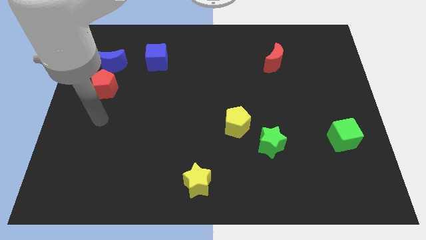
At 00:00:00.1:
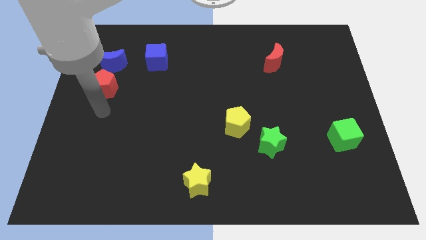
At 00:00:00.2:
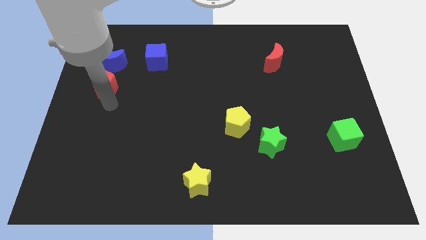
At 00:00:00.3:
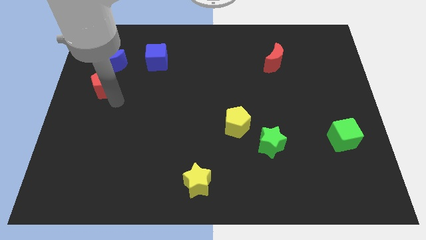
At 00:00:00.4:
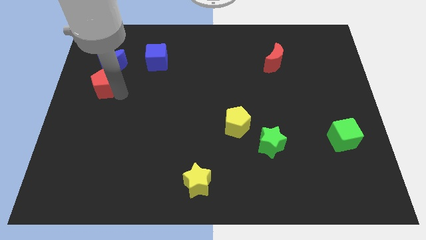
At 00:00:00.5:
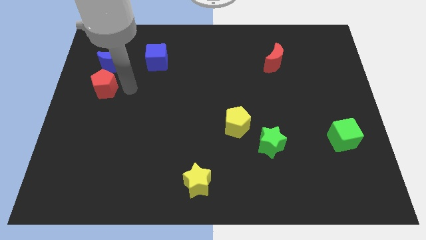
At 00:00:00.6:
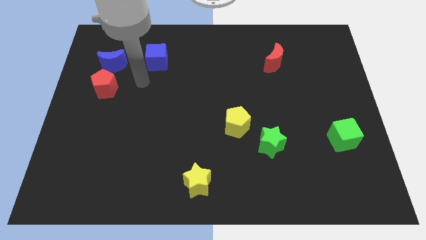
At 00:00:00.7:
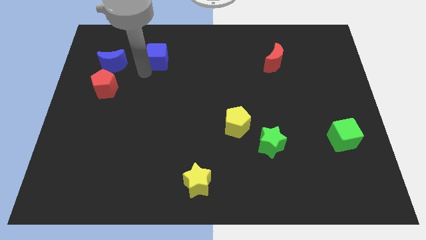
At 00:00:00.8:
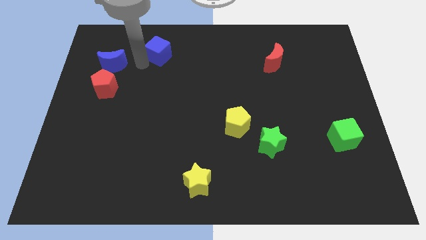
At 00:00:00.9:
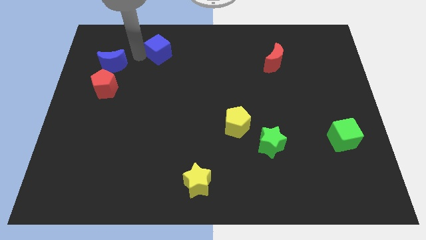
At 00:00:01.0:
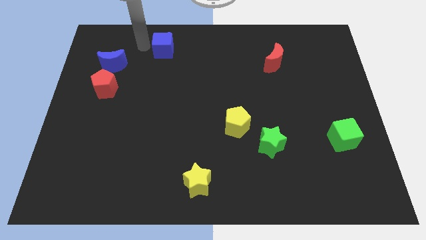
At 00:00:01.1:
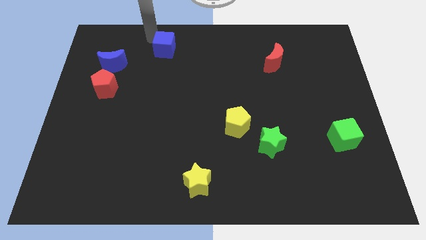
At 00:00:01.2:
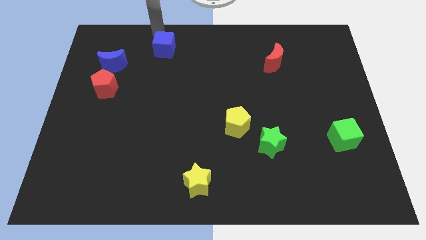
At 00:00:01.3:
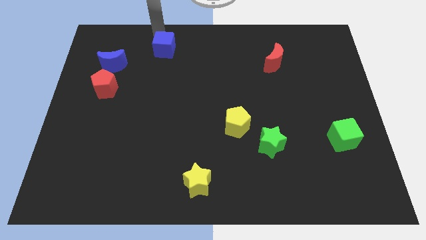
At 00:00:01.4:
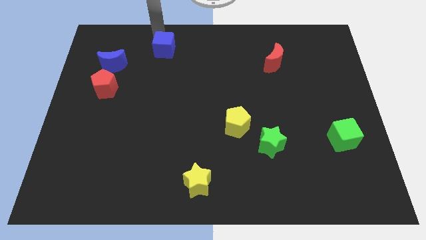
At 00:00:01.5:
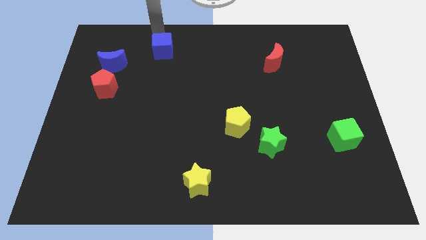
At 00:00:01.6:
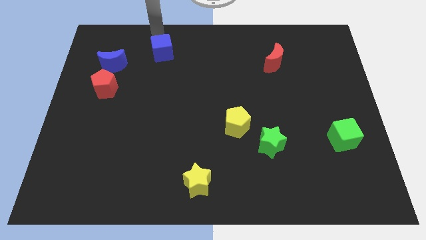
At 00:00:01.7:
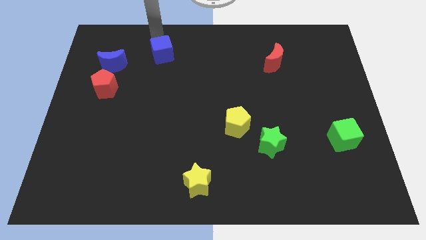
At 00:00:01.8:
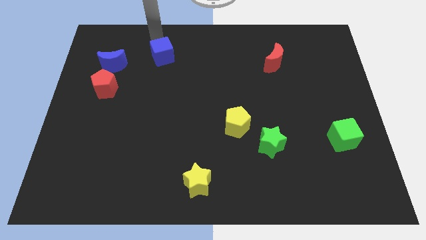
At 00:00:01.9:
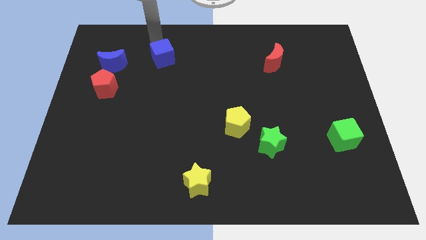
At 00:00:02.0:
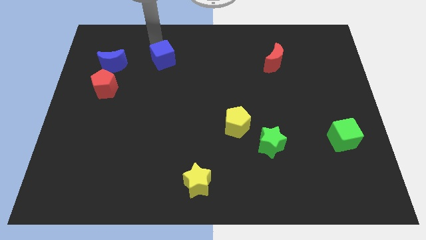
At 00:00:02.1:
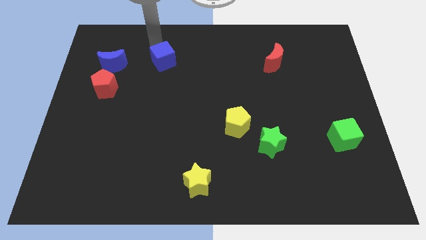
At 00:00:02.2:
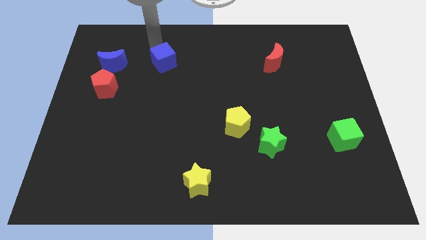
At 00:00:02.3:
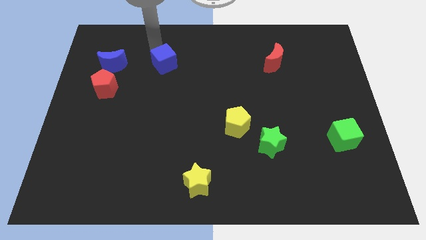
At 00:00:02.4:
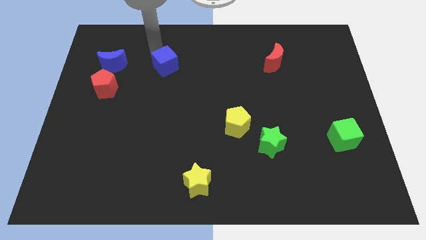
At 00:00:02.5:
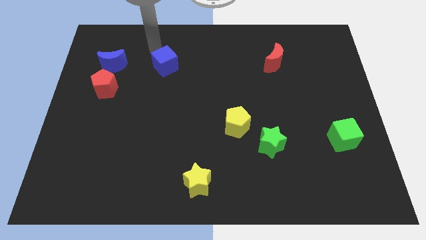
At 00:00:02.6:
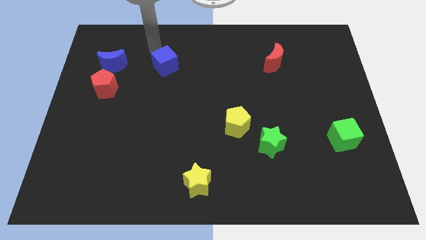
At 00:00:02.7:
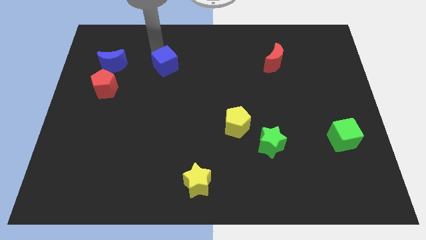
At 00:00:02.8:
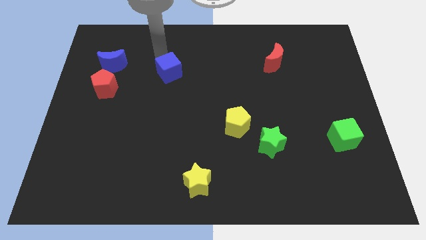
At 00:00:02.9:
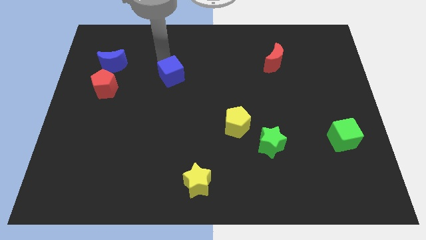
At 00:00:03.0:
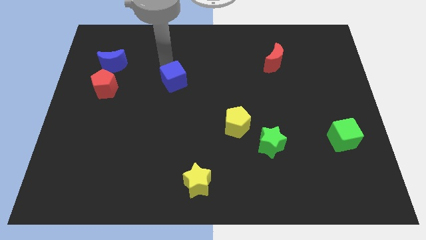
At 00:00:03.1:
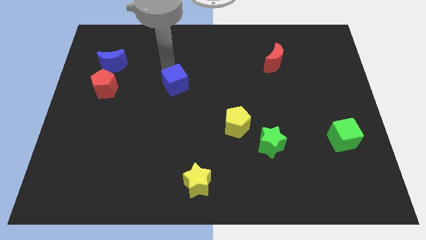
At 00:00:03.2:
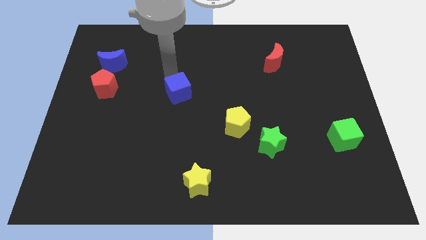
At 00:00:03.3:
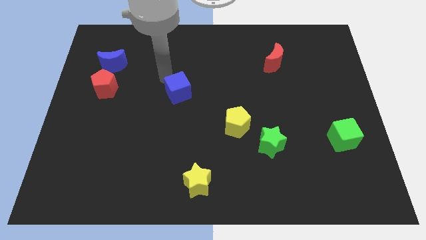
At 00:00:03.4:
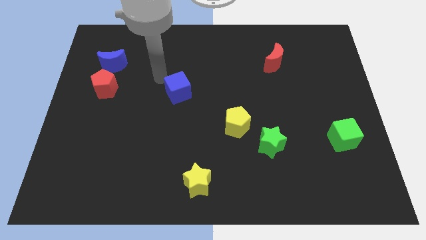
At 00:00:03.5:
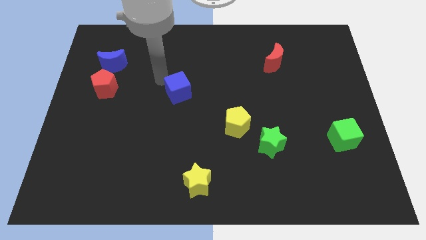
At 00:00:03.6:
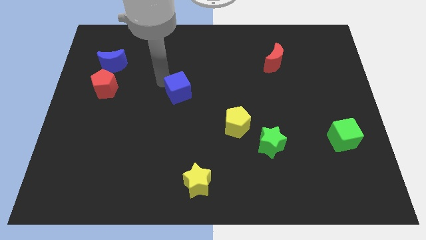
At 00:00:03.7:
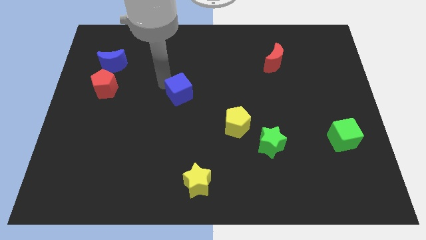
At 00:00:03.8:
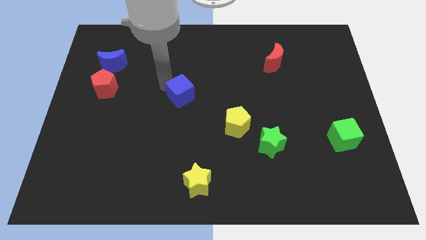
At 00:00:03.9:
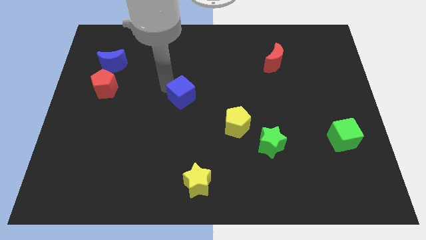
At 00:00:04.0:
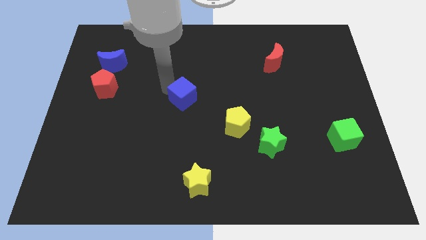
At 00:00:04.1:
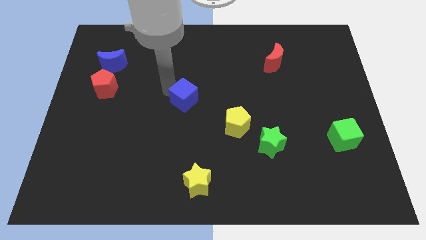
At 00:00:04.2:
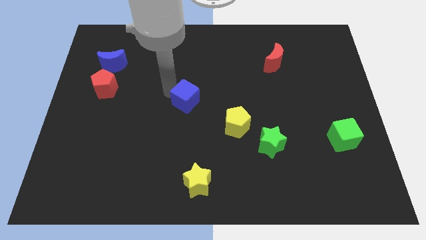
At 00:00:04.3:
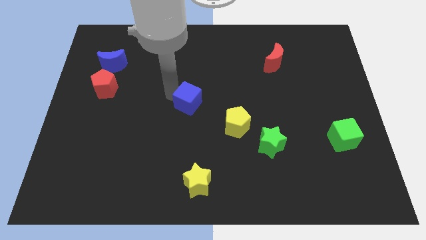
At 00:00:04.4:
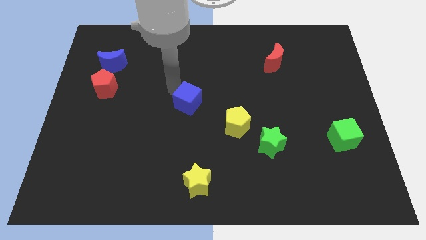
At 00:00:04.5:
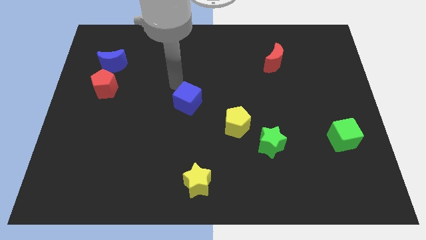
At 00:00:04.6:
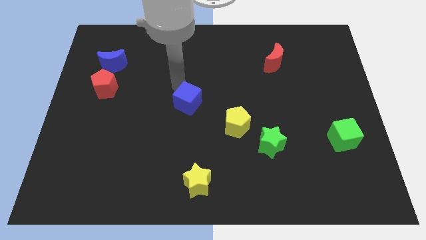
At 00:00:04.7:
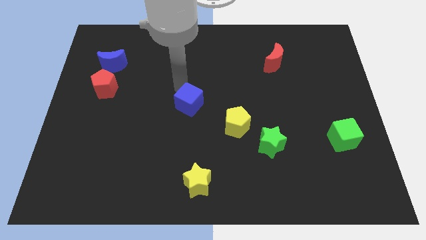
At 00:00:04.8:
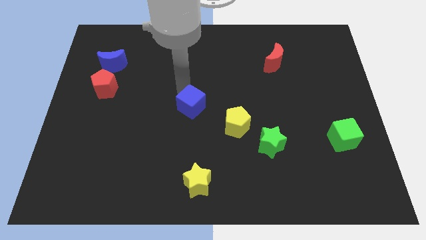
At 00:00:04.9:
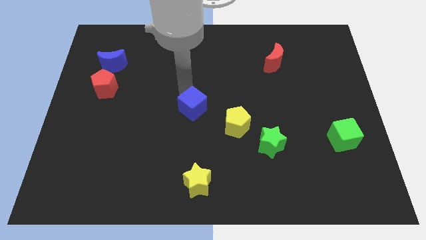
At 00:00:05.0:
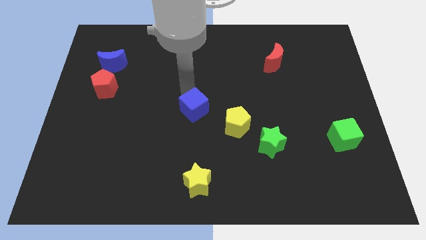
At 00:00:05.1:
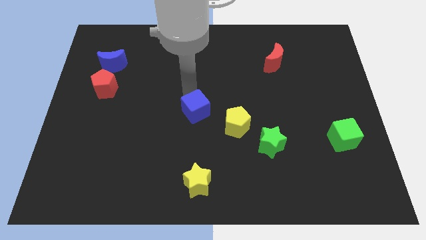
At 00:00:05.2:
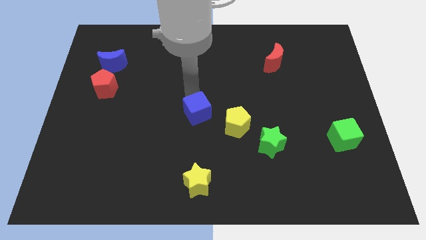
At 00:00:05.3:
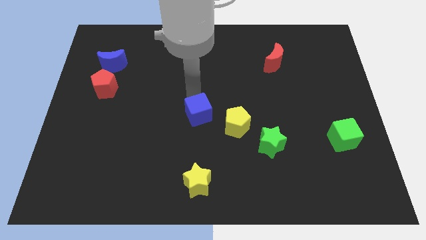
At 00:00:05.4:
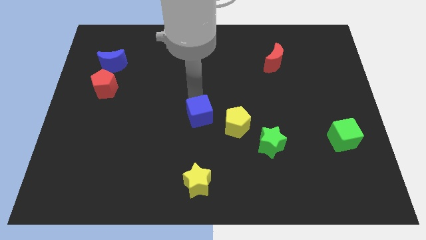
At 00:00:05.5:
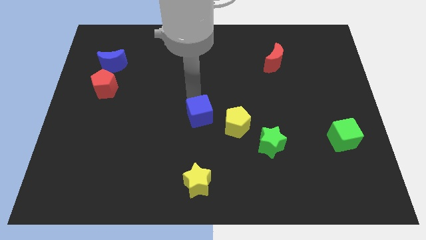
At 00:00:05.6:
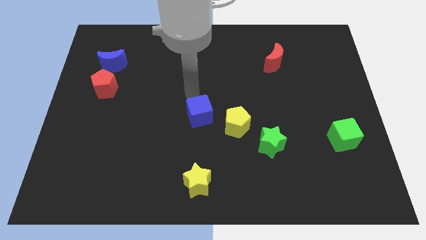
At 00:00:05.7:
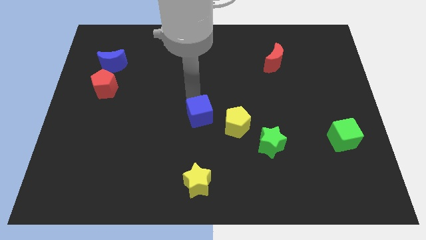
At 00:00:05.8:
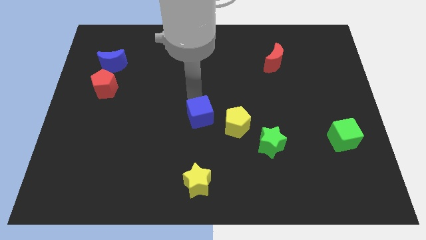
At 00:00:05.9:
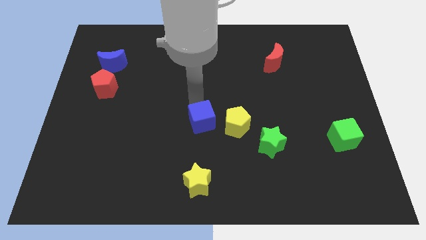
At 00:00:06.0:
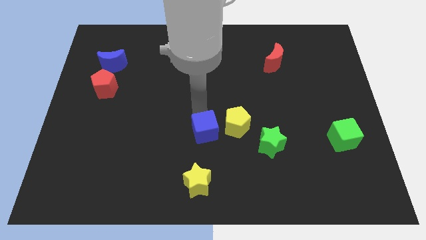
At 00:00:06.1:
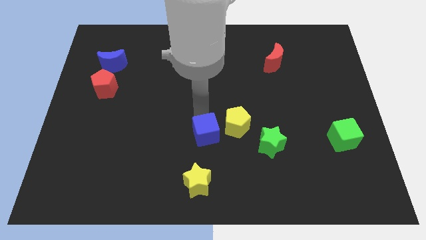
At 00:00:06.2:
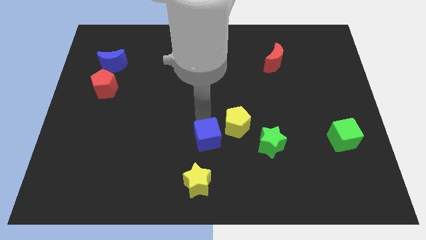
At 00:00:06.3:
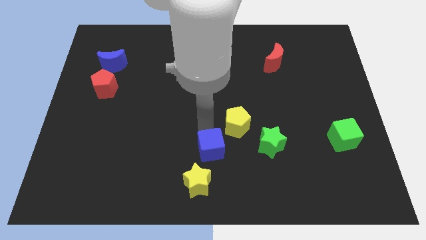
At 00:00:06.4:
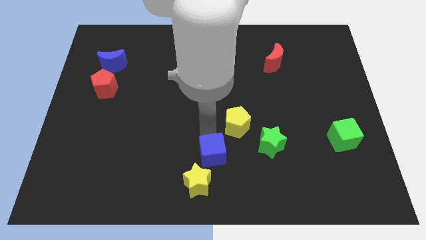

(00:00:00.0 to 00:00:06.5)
move the blue cube to the bottom
